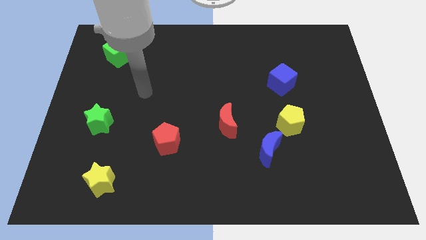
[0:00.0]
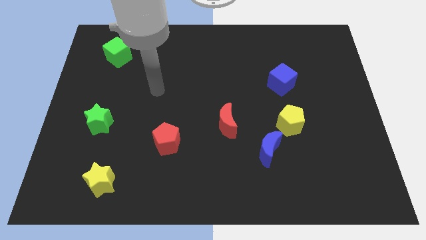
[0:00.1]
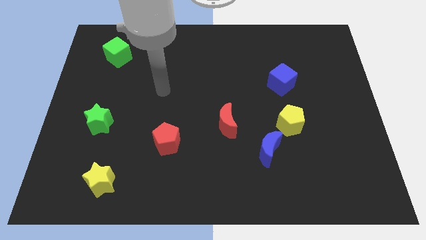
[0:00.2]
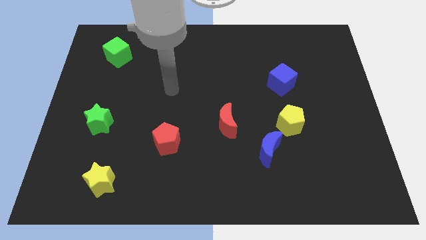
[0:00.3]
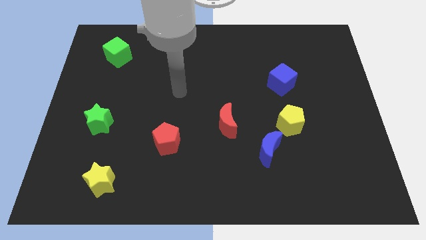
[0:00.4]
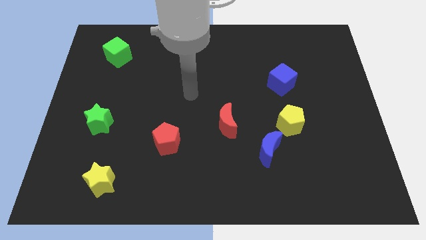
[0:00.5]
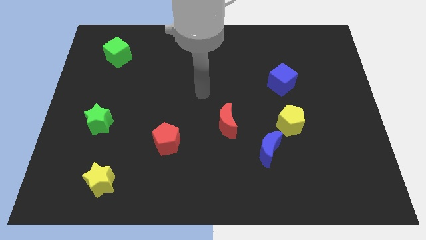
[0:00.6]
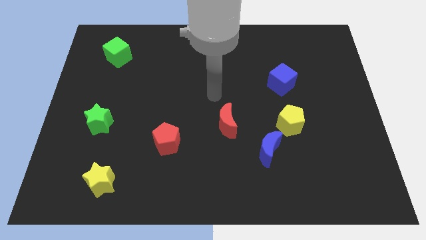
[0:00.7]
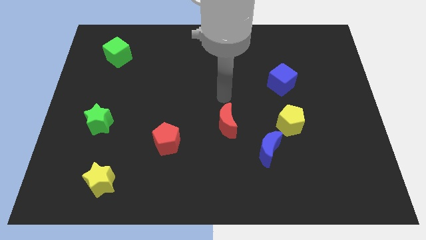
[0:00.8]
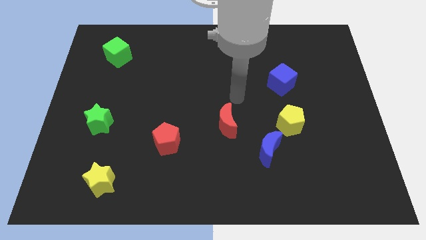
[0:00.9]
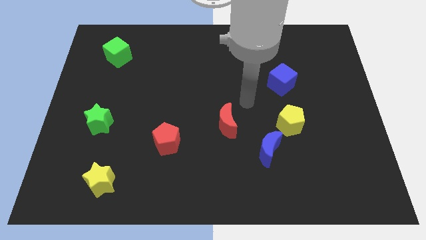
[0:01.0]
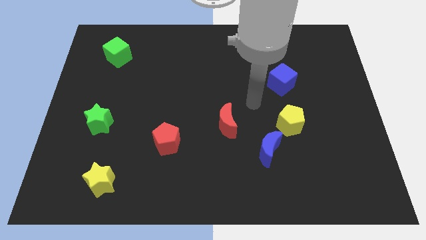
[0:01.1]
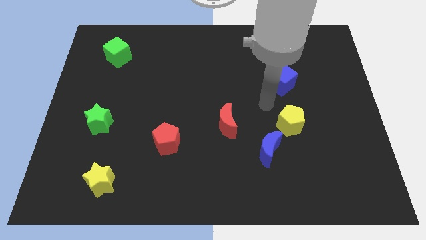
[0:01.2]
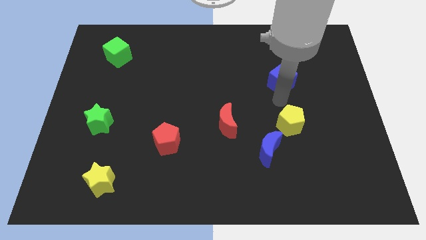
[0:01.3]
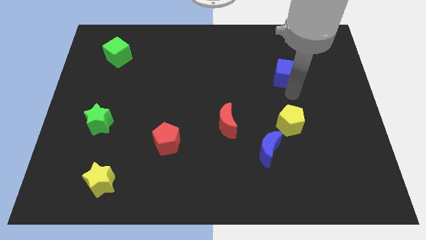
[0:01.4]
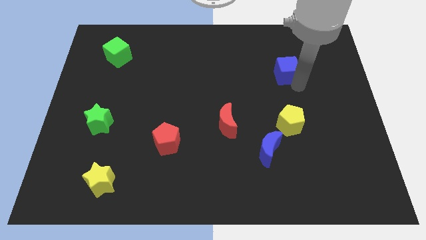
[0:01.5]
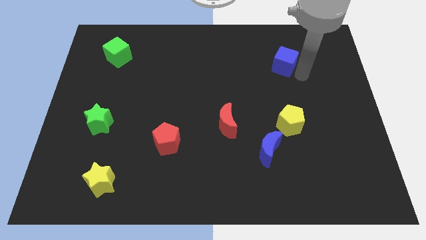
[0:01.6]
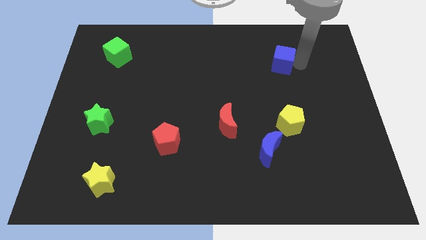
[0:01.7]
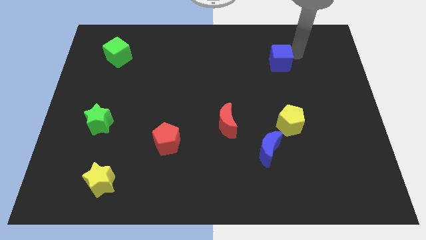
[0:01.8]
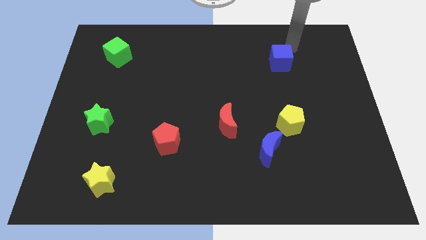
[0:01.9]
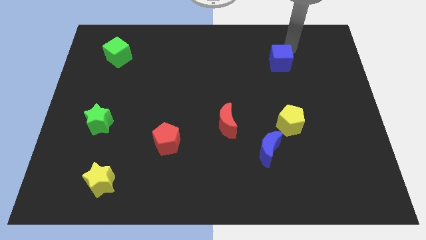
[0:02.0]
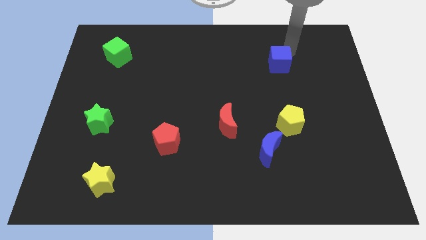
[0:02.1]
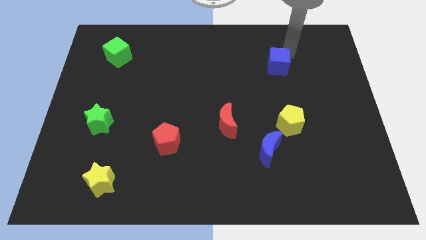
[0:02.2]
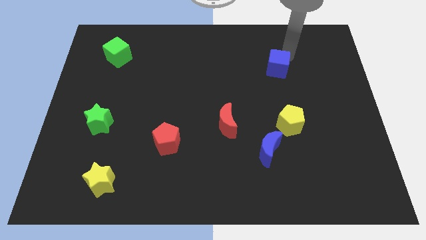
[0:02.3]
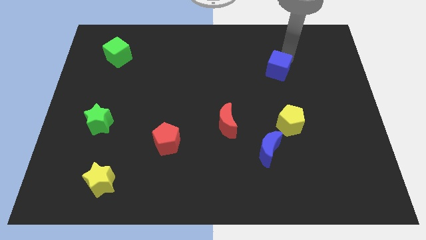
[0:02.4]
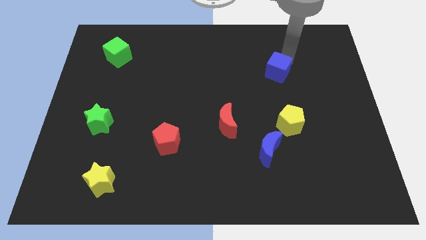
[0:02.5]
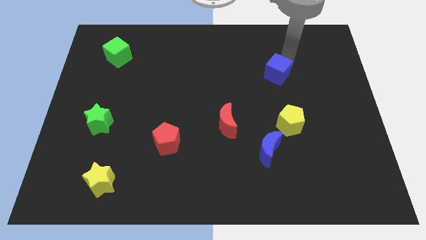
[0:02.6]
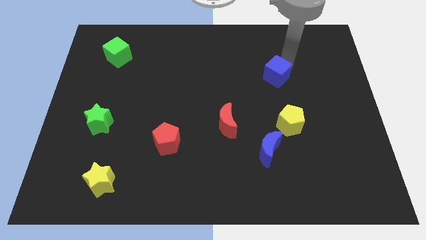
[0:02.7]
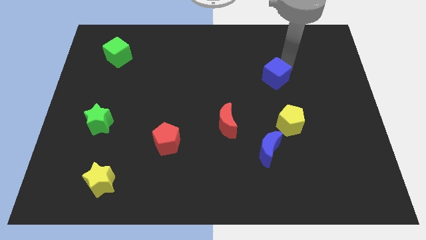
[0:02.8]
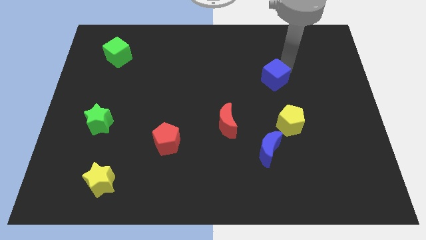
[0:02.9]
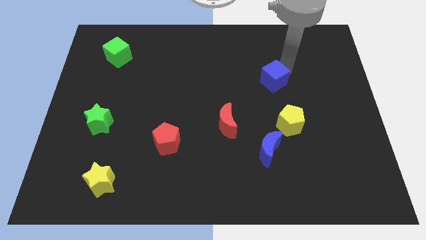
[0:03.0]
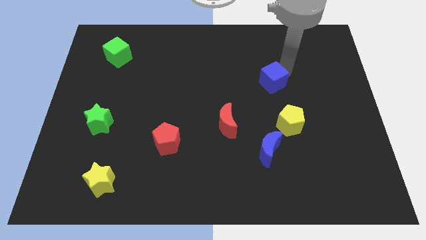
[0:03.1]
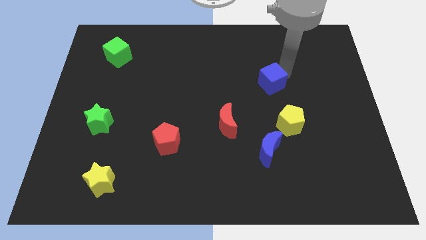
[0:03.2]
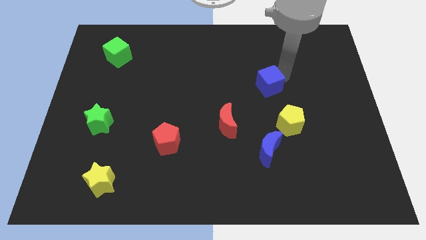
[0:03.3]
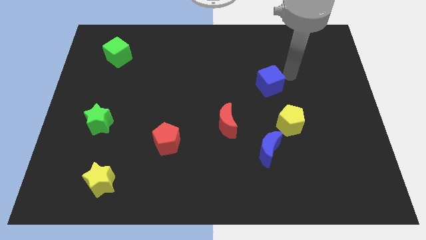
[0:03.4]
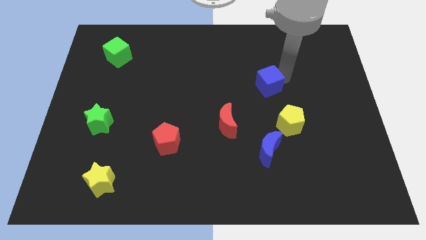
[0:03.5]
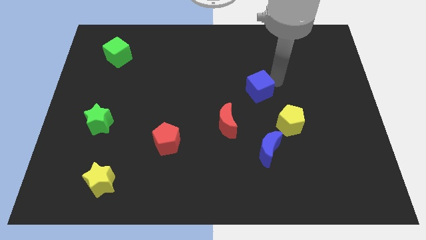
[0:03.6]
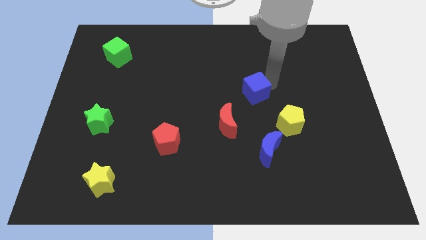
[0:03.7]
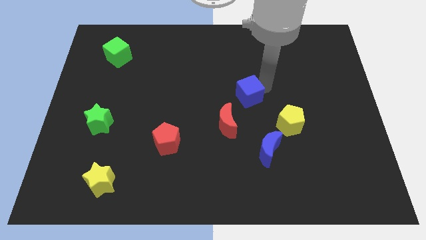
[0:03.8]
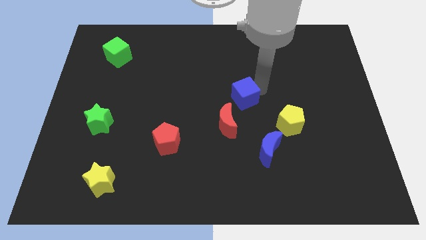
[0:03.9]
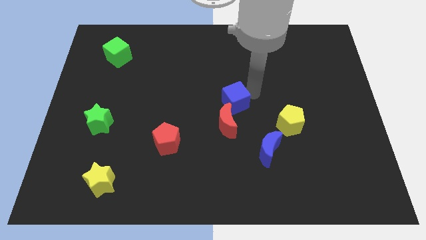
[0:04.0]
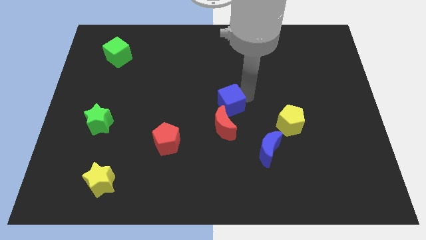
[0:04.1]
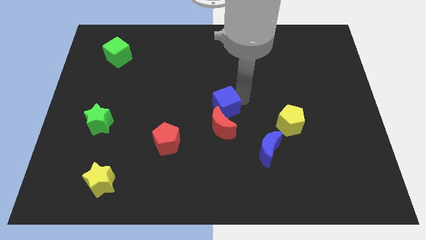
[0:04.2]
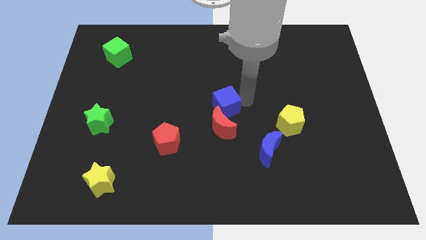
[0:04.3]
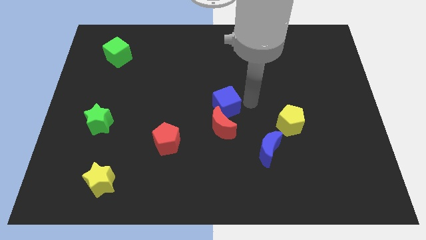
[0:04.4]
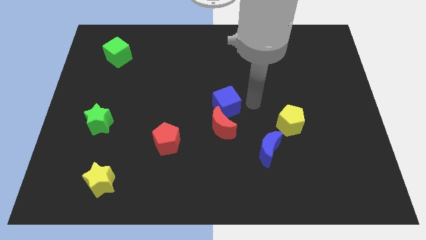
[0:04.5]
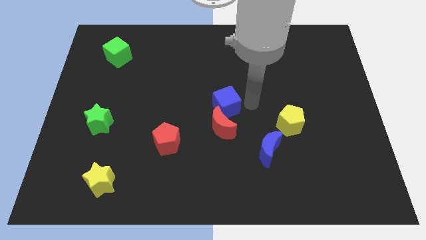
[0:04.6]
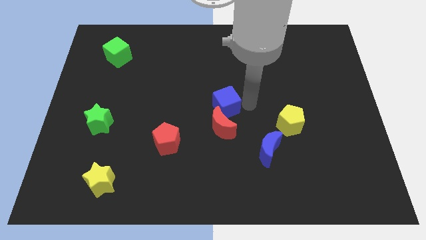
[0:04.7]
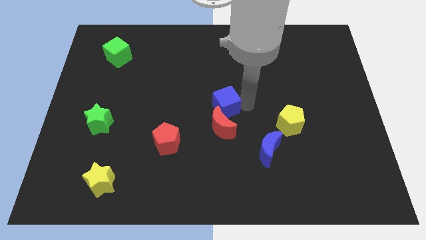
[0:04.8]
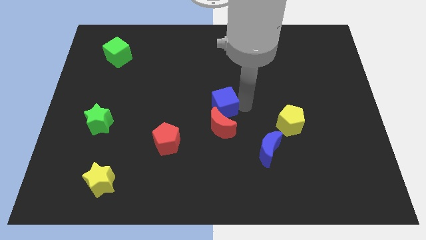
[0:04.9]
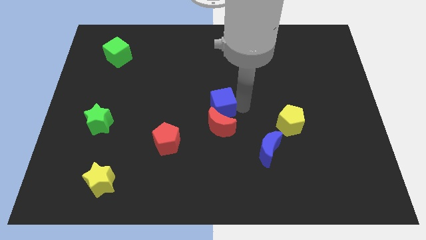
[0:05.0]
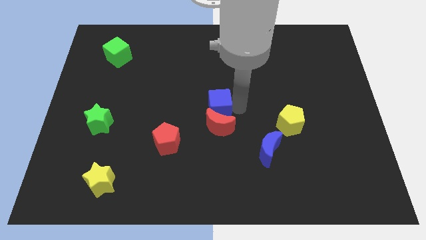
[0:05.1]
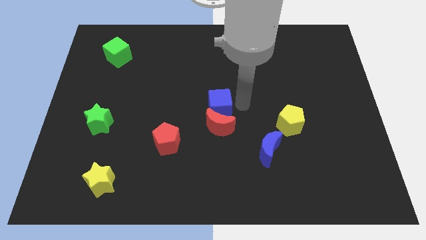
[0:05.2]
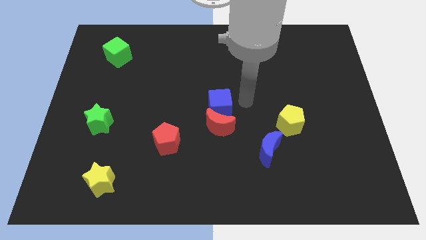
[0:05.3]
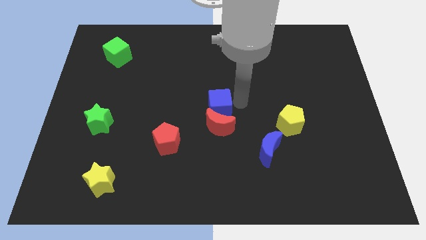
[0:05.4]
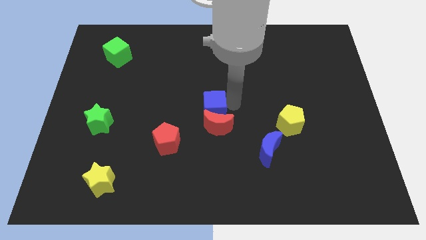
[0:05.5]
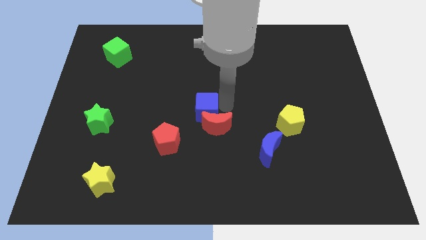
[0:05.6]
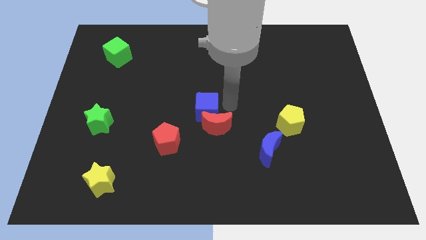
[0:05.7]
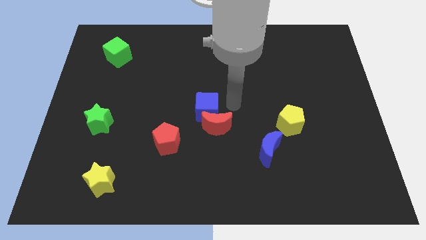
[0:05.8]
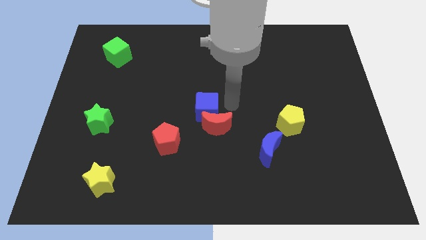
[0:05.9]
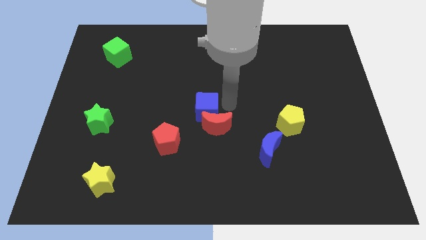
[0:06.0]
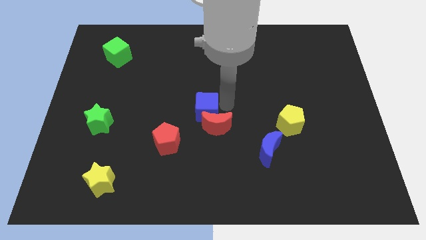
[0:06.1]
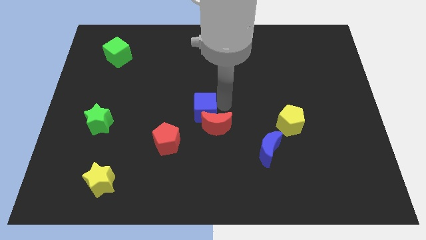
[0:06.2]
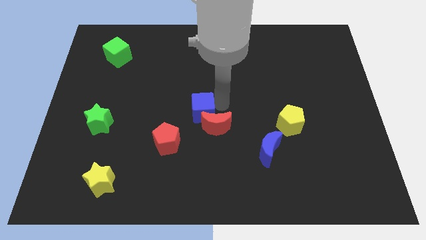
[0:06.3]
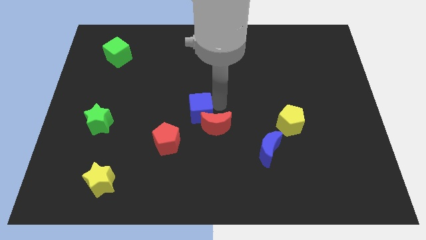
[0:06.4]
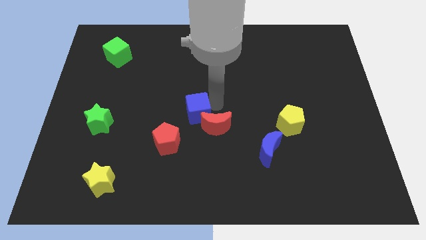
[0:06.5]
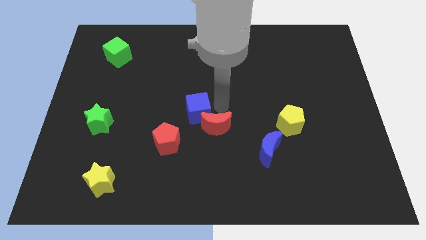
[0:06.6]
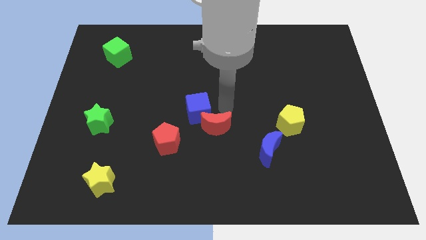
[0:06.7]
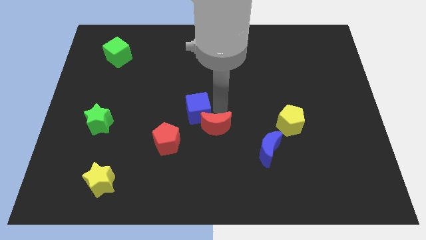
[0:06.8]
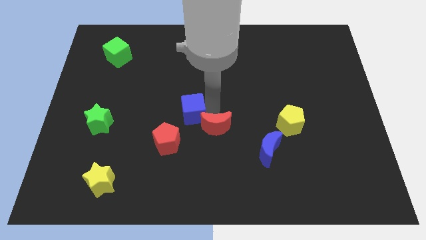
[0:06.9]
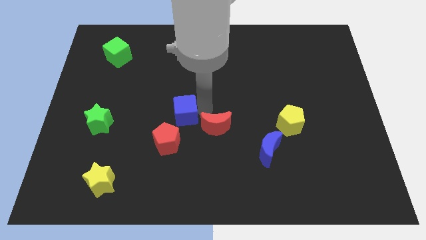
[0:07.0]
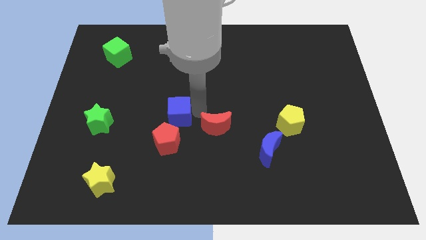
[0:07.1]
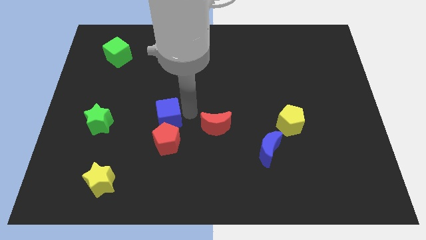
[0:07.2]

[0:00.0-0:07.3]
push the blue cube diagonally up and to the left of the red pentagon
